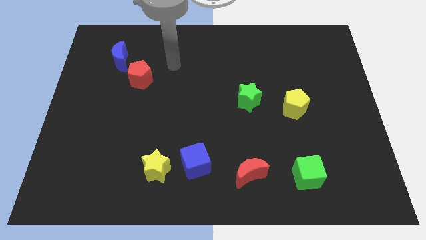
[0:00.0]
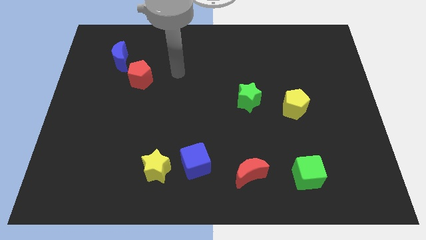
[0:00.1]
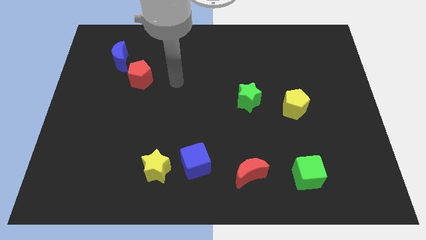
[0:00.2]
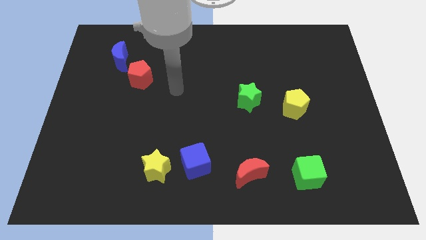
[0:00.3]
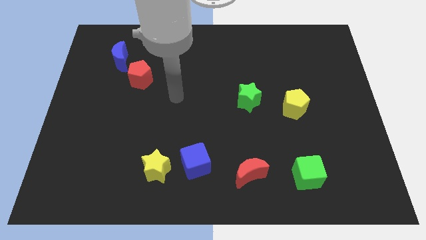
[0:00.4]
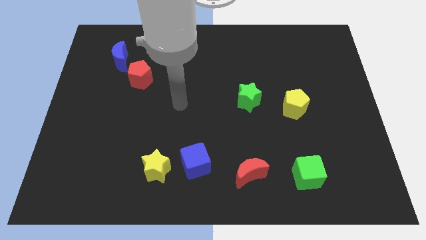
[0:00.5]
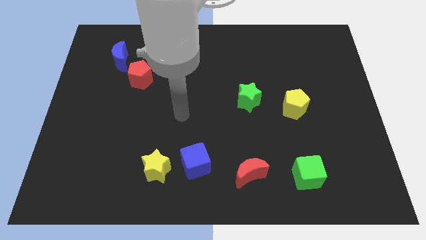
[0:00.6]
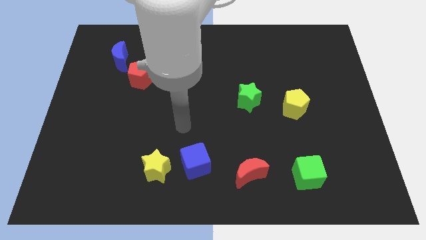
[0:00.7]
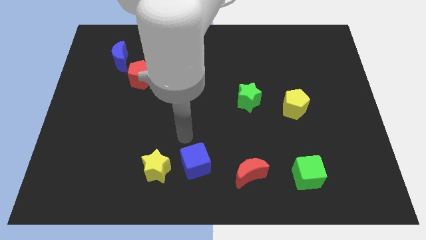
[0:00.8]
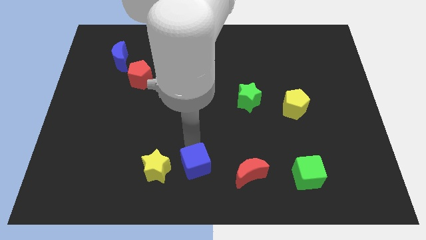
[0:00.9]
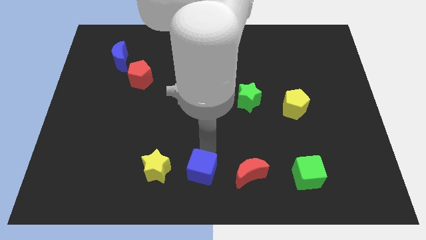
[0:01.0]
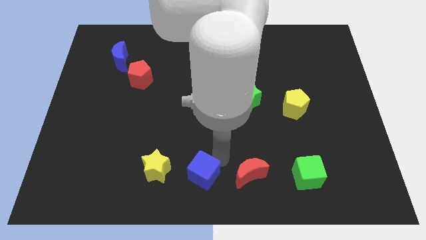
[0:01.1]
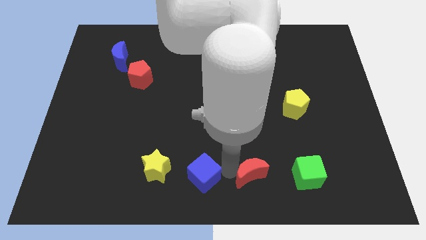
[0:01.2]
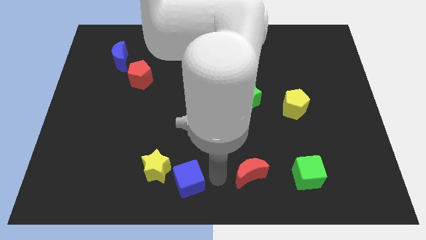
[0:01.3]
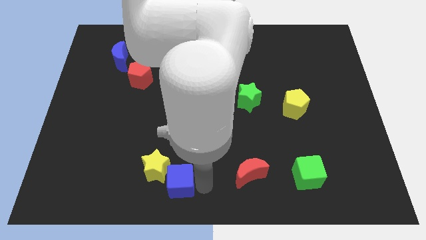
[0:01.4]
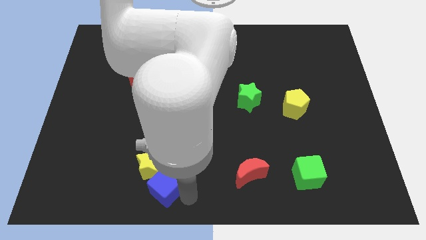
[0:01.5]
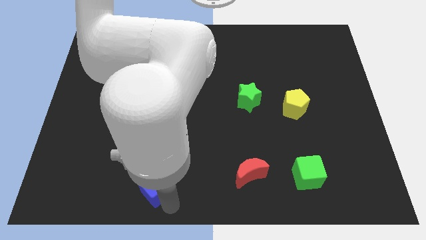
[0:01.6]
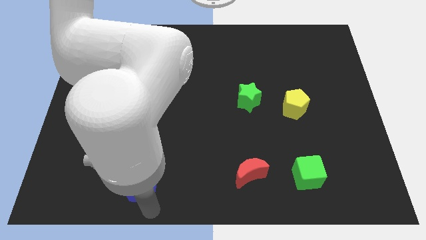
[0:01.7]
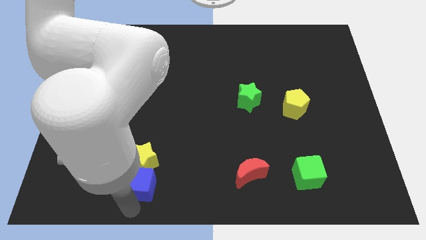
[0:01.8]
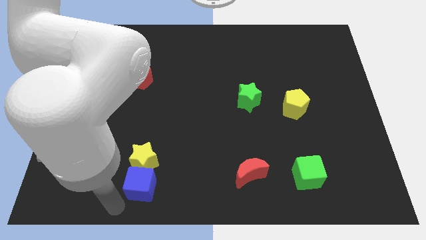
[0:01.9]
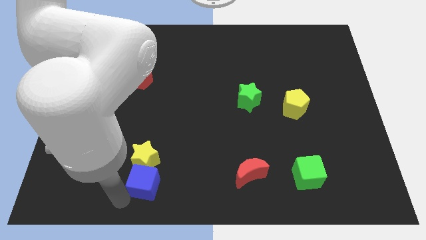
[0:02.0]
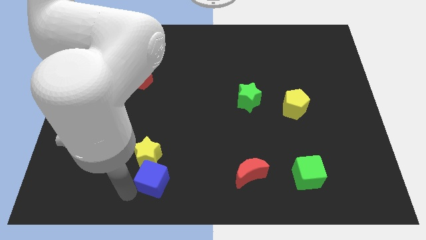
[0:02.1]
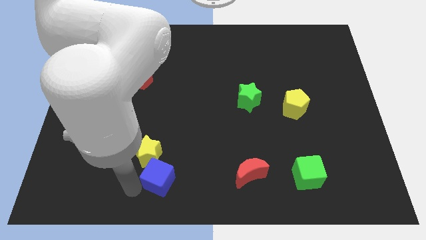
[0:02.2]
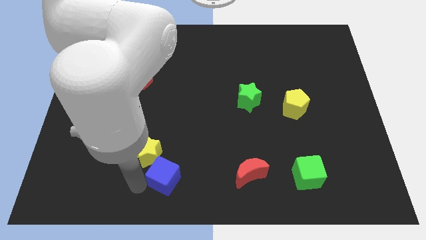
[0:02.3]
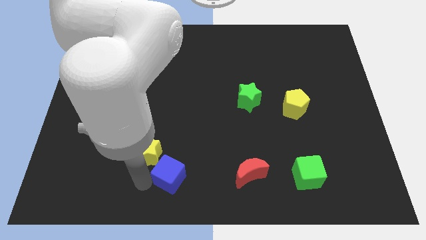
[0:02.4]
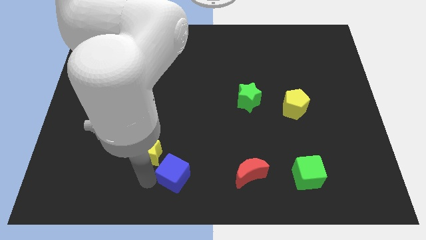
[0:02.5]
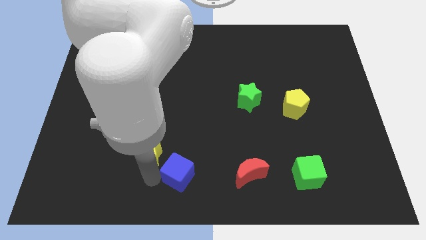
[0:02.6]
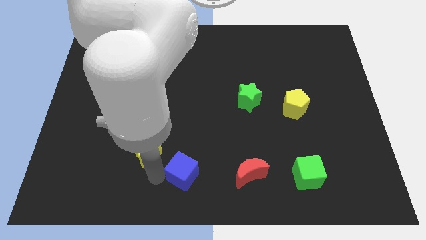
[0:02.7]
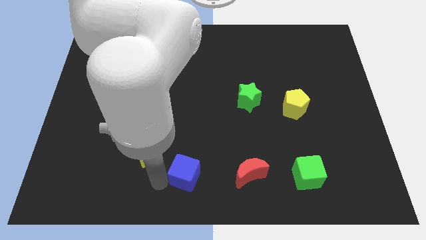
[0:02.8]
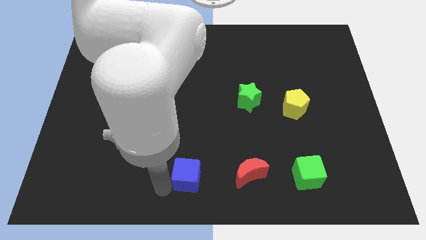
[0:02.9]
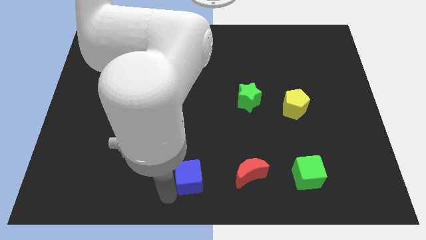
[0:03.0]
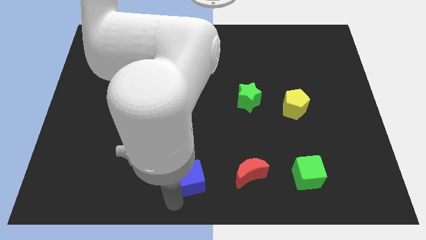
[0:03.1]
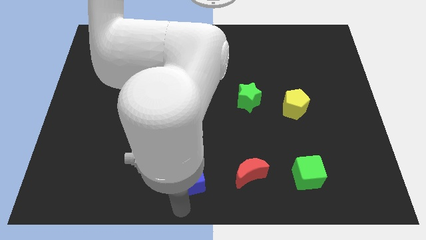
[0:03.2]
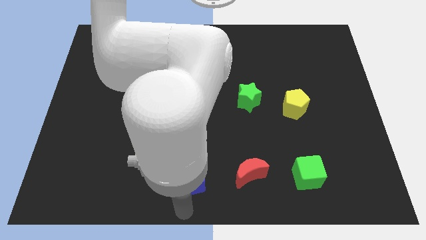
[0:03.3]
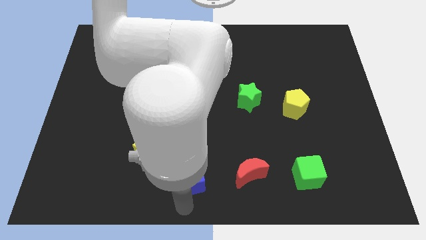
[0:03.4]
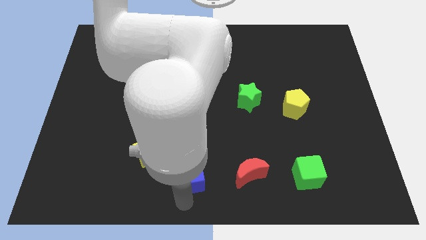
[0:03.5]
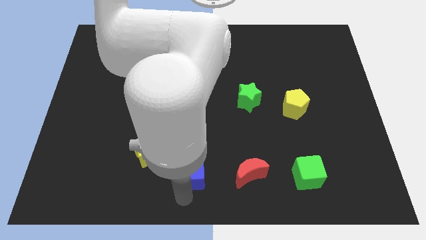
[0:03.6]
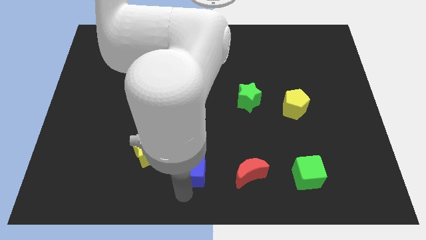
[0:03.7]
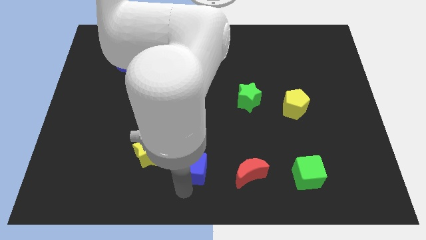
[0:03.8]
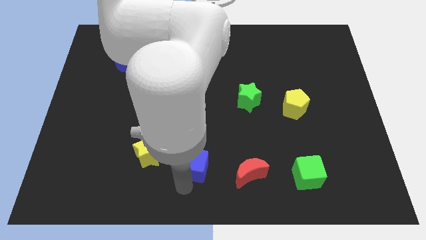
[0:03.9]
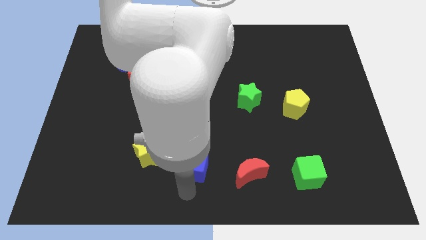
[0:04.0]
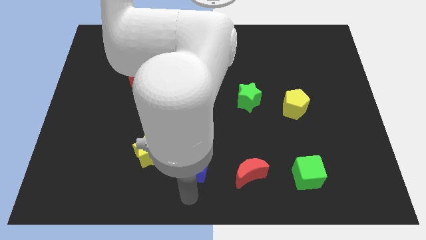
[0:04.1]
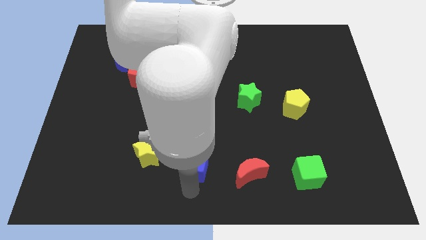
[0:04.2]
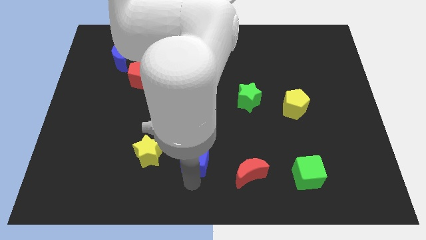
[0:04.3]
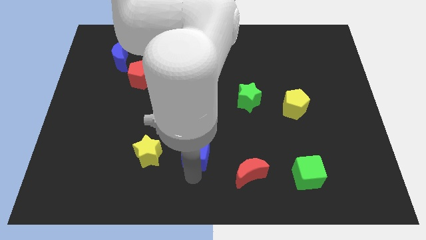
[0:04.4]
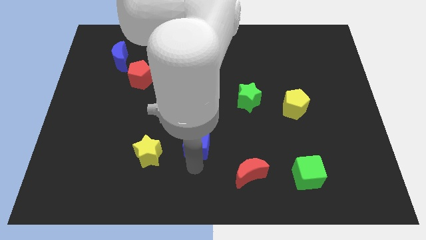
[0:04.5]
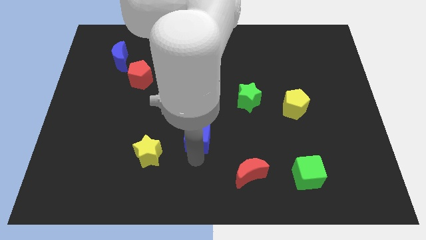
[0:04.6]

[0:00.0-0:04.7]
put the blue cube to the middle of the board

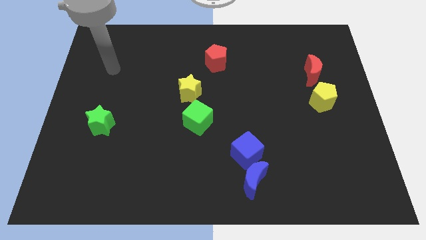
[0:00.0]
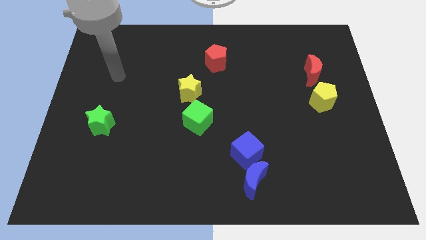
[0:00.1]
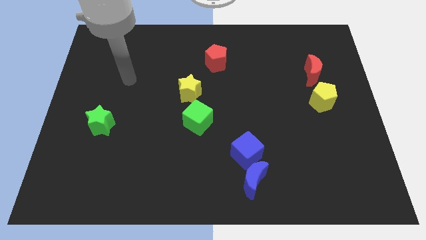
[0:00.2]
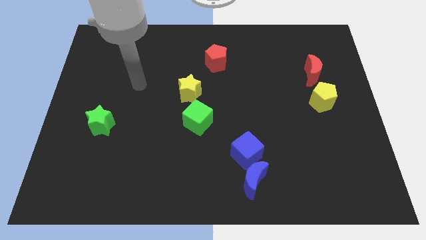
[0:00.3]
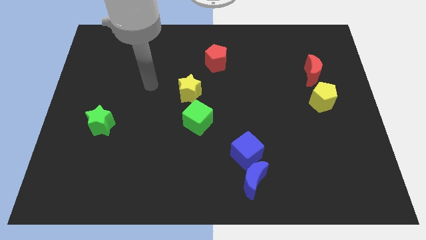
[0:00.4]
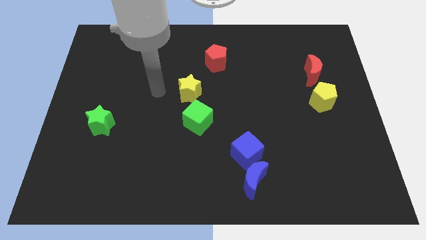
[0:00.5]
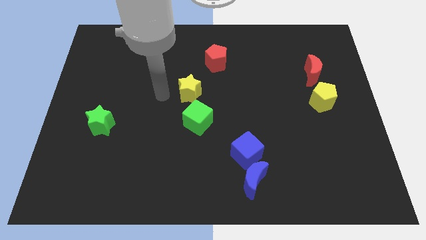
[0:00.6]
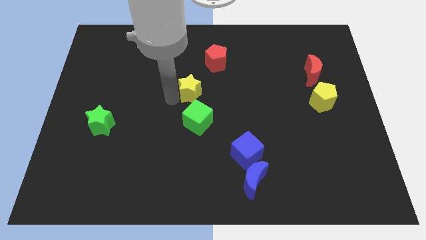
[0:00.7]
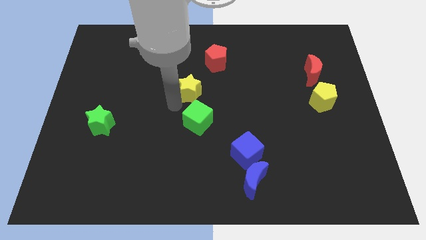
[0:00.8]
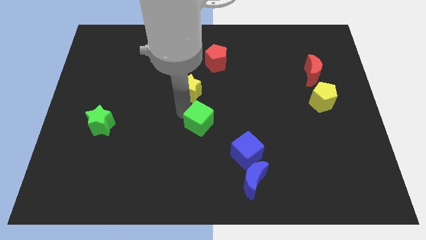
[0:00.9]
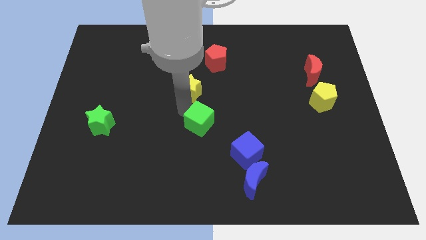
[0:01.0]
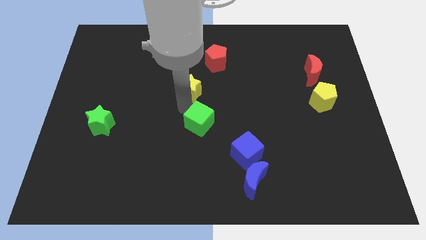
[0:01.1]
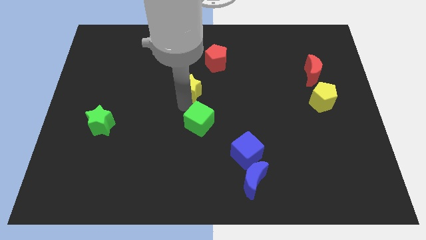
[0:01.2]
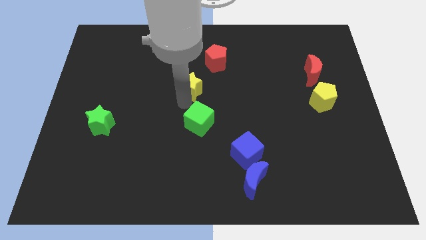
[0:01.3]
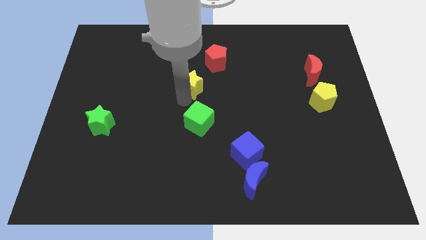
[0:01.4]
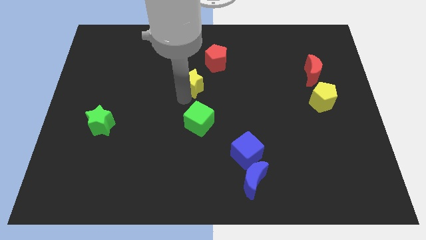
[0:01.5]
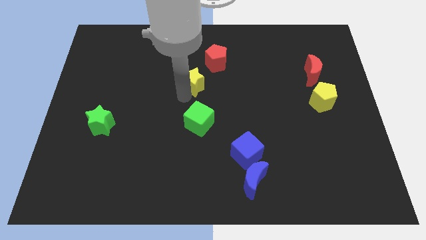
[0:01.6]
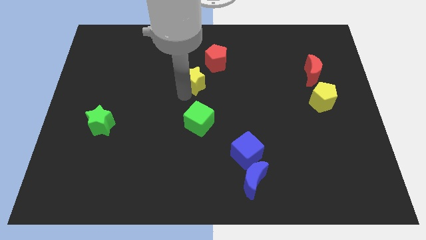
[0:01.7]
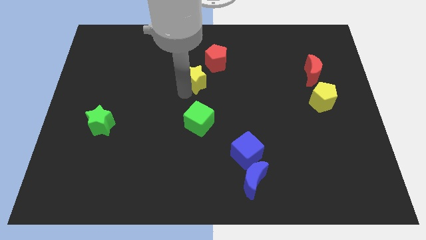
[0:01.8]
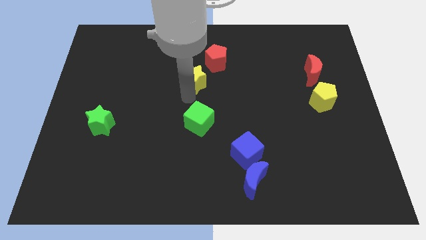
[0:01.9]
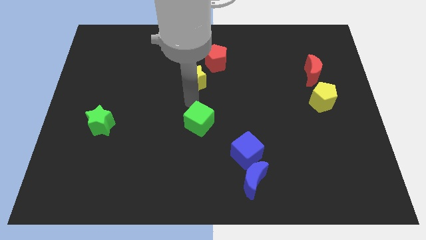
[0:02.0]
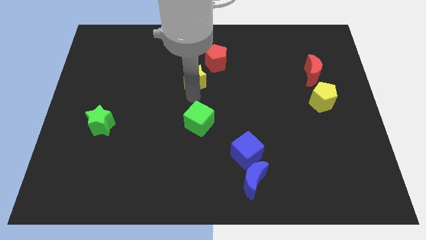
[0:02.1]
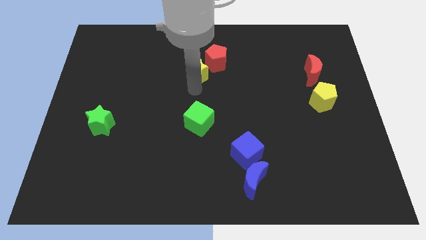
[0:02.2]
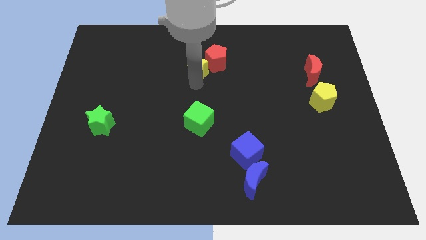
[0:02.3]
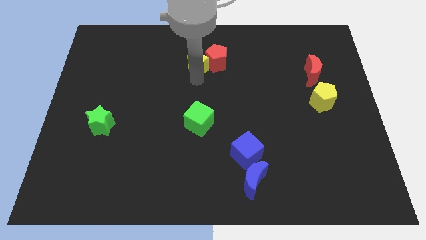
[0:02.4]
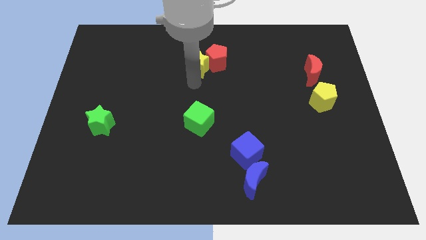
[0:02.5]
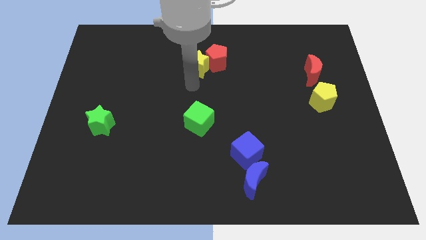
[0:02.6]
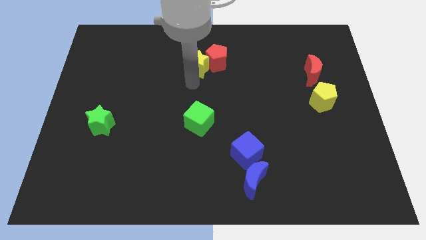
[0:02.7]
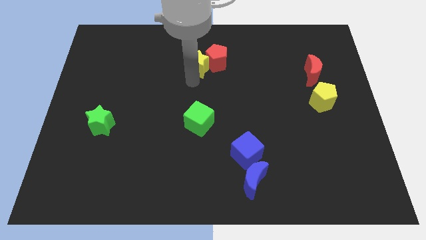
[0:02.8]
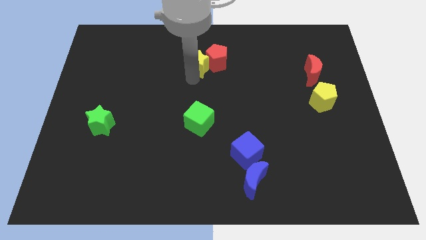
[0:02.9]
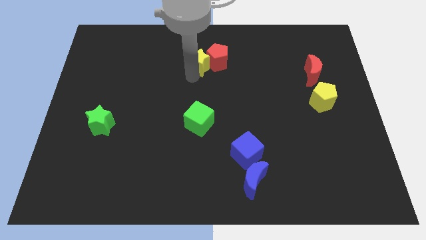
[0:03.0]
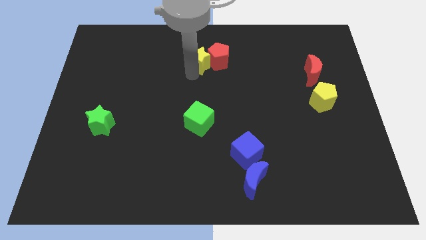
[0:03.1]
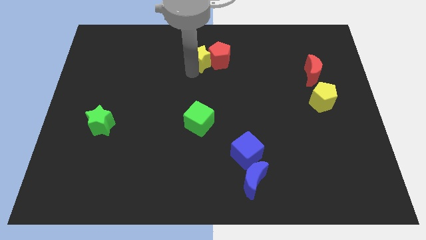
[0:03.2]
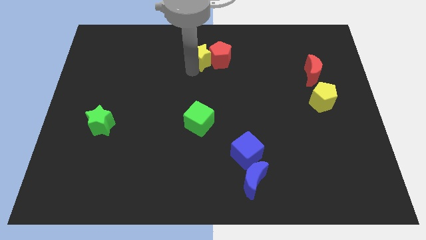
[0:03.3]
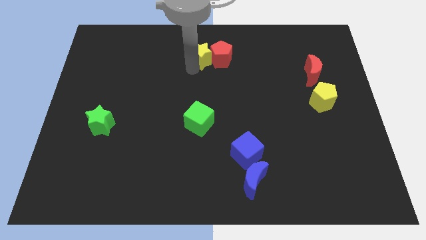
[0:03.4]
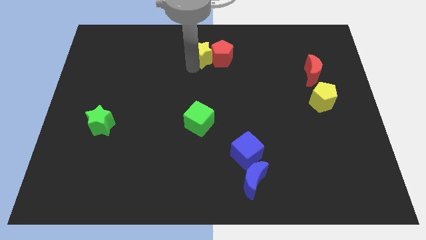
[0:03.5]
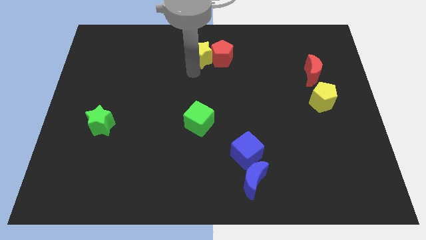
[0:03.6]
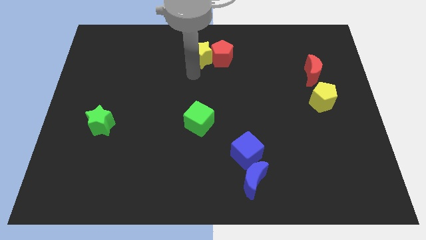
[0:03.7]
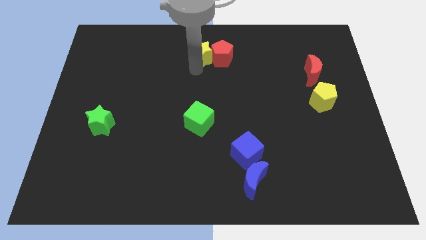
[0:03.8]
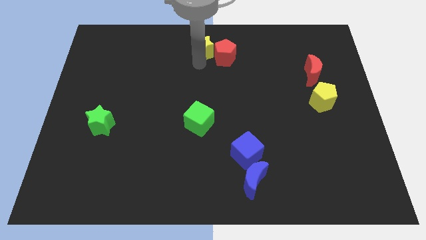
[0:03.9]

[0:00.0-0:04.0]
push the yellow star to the top side
